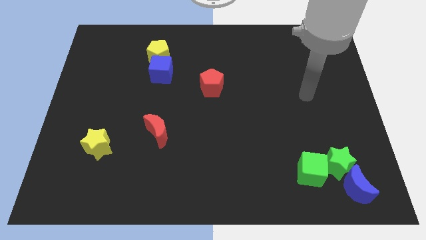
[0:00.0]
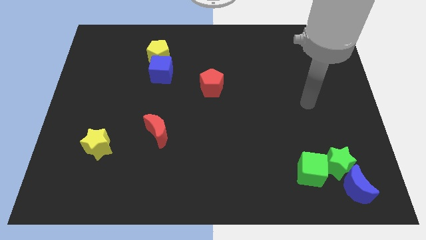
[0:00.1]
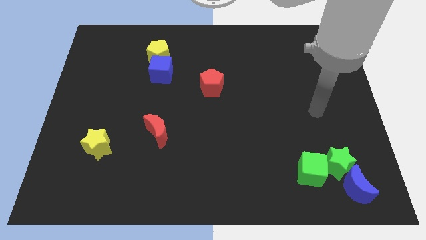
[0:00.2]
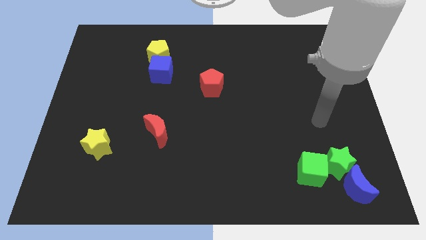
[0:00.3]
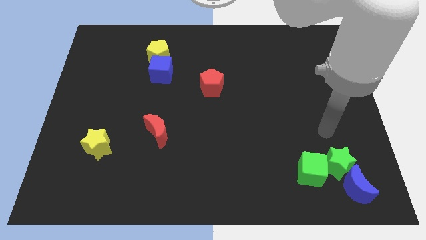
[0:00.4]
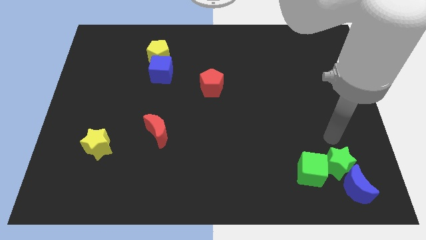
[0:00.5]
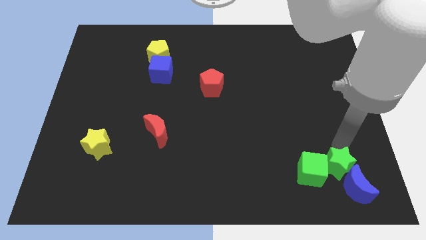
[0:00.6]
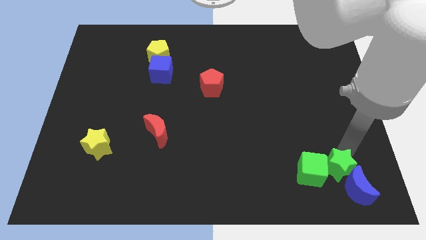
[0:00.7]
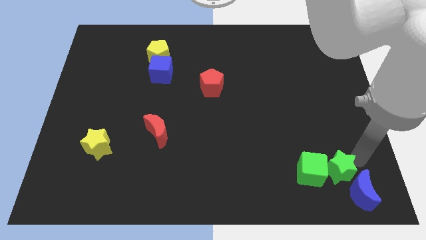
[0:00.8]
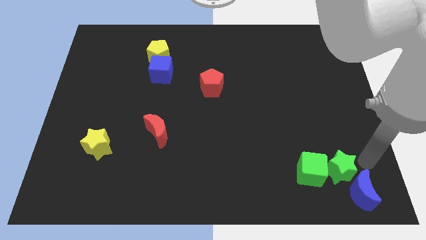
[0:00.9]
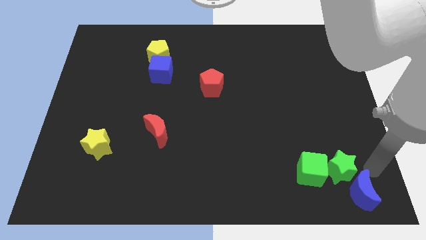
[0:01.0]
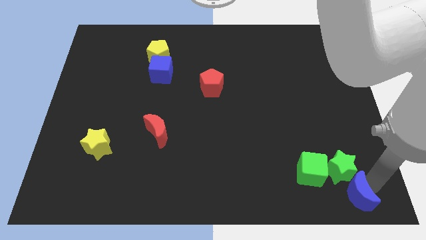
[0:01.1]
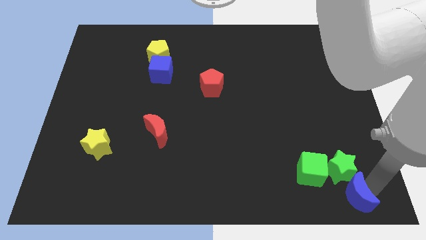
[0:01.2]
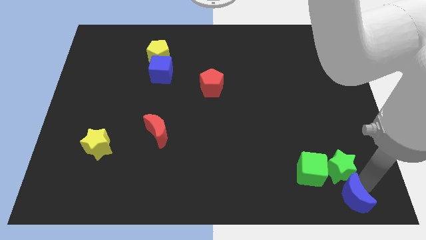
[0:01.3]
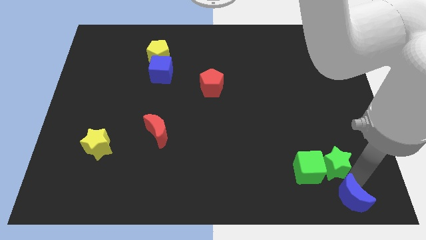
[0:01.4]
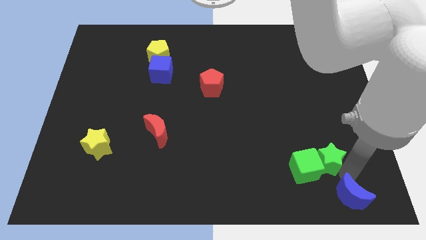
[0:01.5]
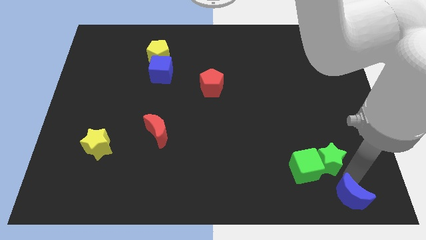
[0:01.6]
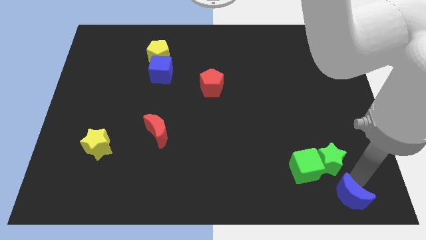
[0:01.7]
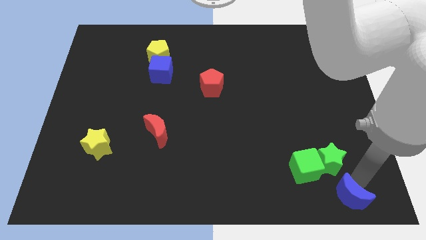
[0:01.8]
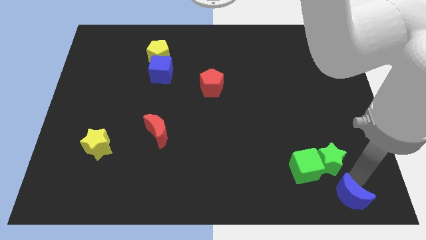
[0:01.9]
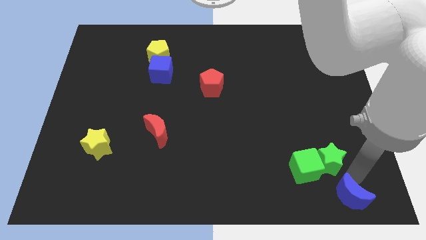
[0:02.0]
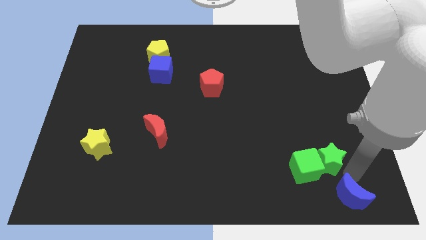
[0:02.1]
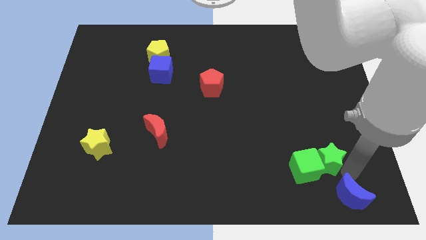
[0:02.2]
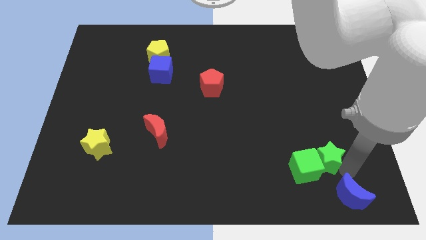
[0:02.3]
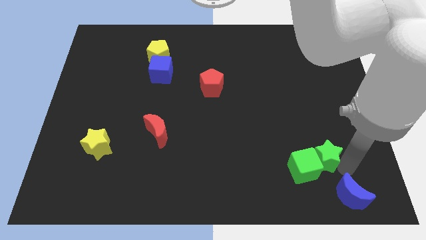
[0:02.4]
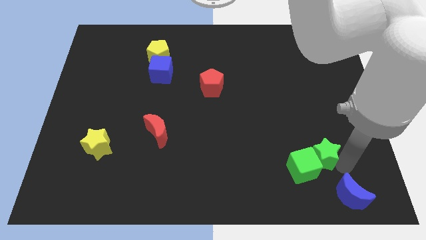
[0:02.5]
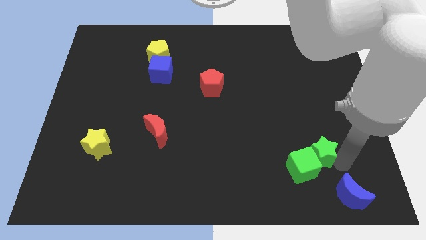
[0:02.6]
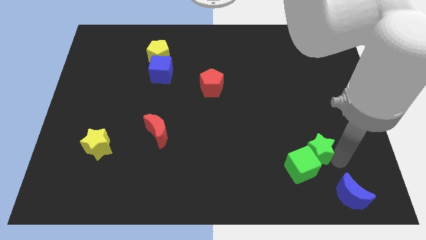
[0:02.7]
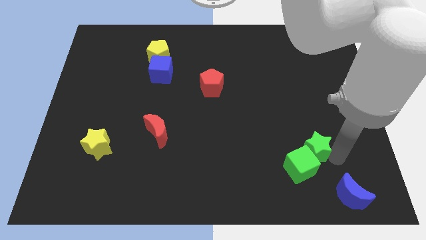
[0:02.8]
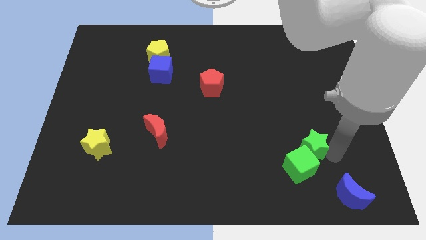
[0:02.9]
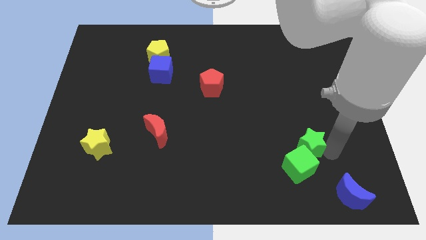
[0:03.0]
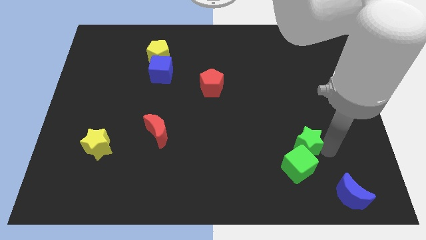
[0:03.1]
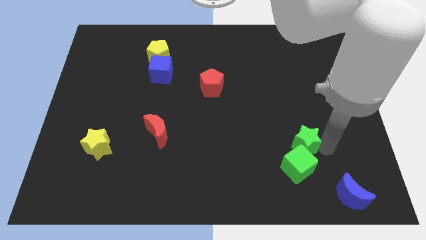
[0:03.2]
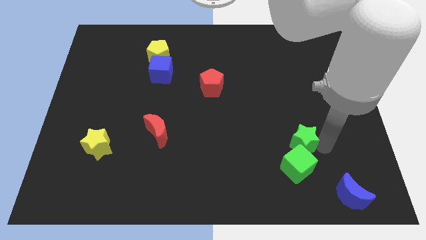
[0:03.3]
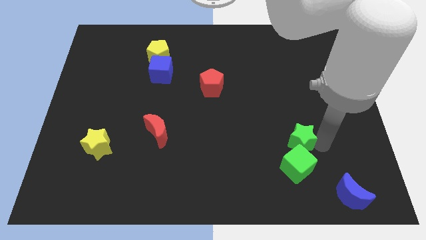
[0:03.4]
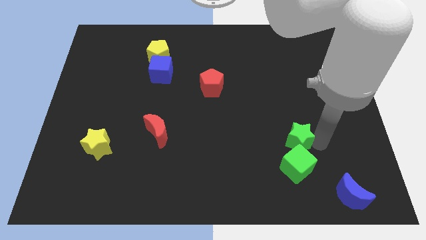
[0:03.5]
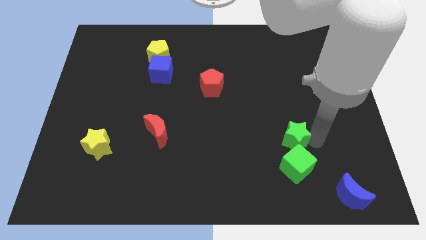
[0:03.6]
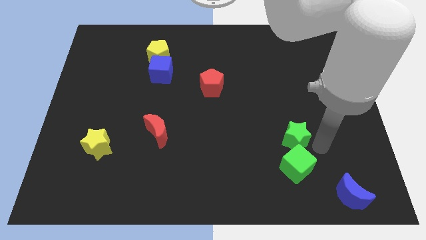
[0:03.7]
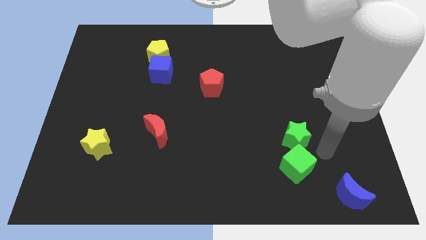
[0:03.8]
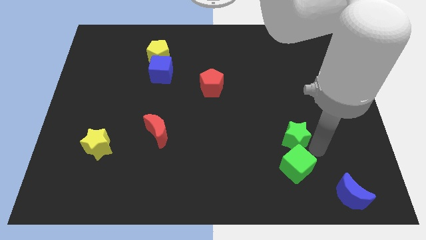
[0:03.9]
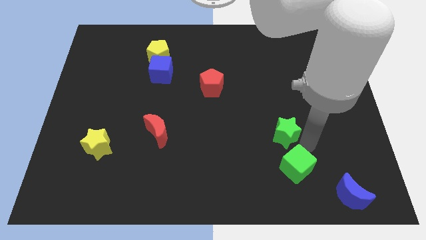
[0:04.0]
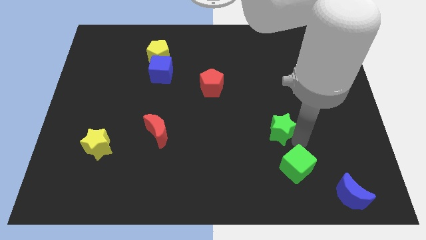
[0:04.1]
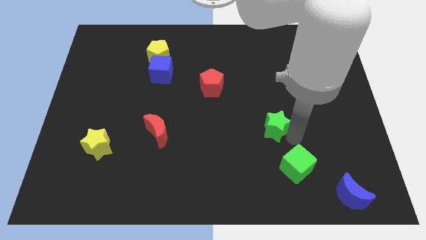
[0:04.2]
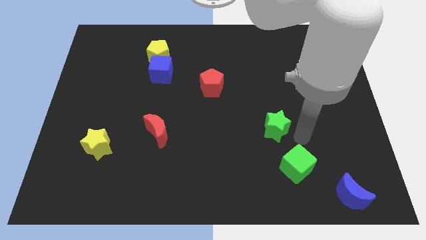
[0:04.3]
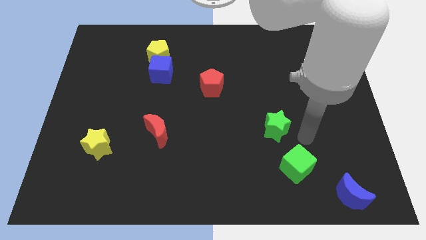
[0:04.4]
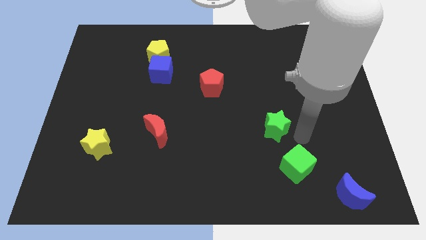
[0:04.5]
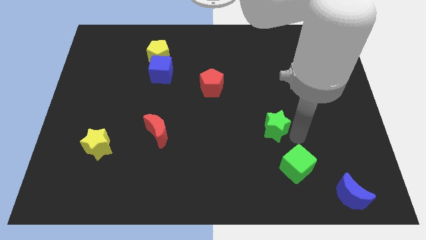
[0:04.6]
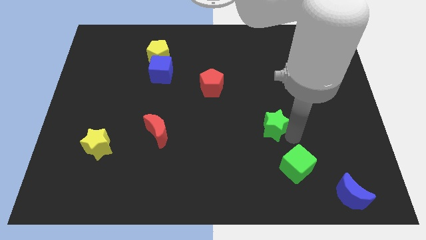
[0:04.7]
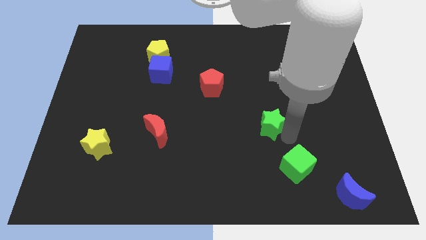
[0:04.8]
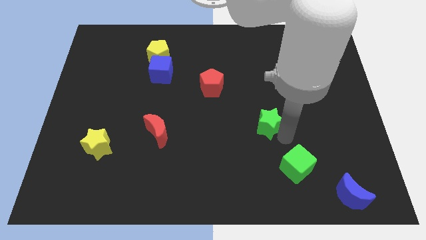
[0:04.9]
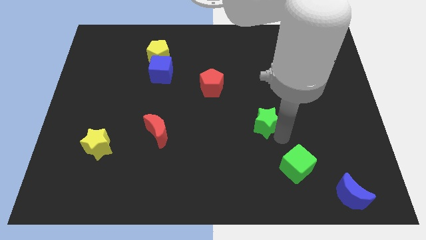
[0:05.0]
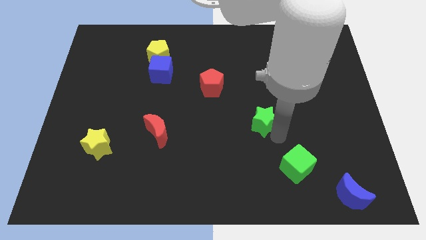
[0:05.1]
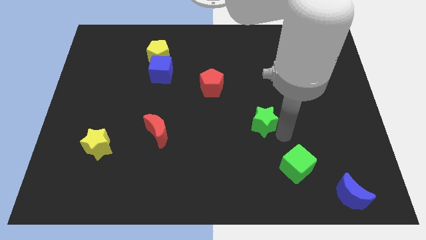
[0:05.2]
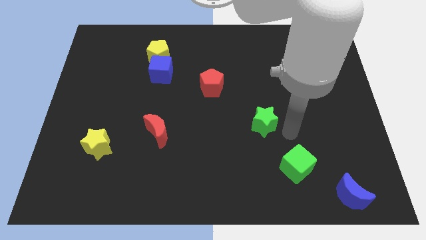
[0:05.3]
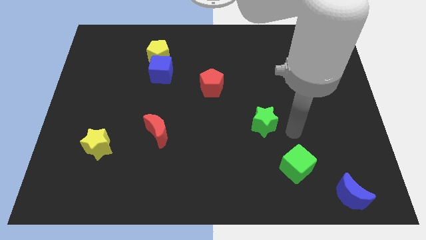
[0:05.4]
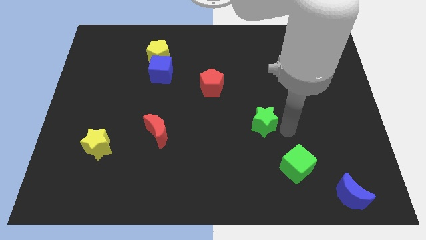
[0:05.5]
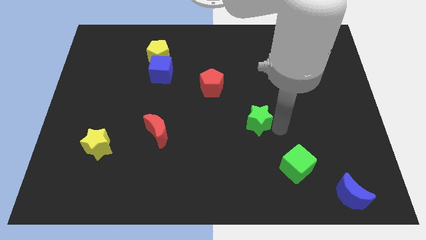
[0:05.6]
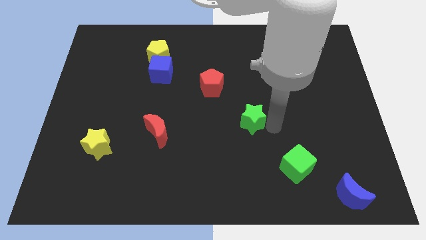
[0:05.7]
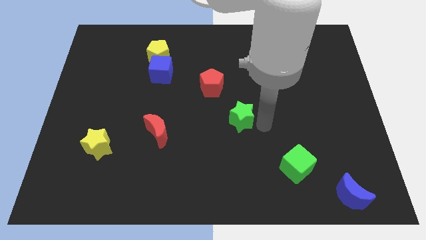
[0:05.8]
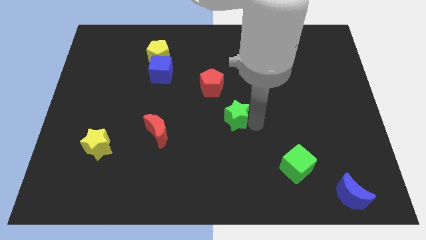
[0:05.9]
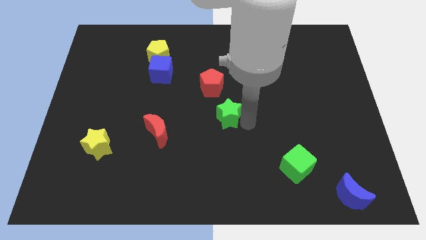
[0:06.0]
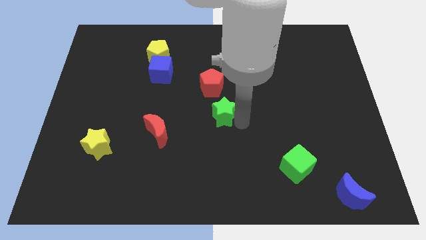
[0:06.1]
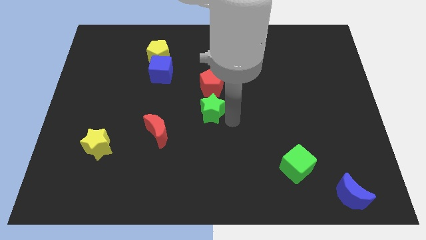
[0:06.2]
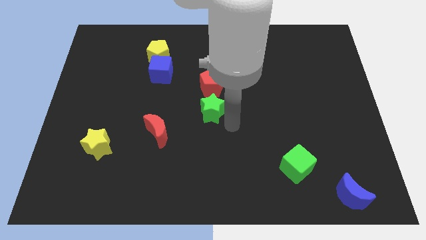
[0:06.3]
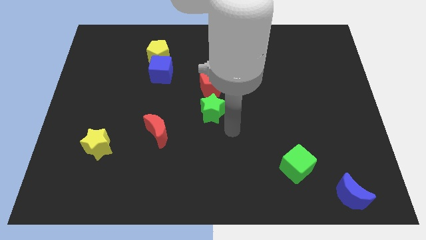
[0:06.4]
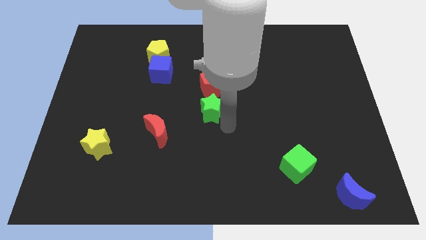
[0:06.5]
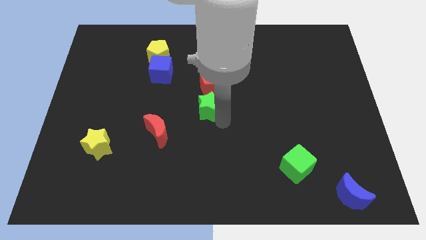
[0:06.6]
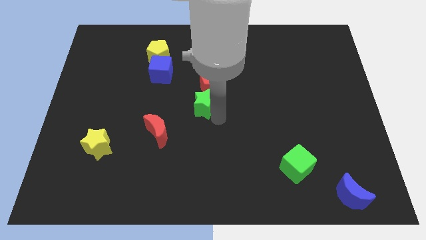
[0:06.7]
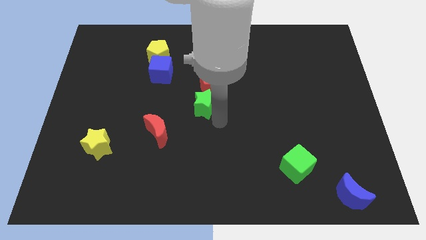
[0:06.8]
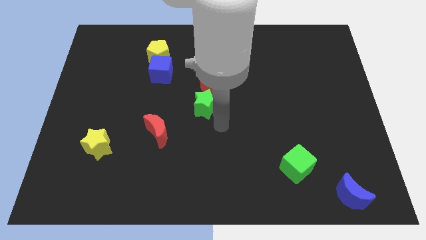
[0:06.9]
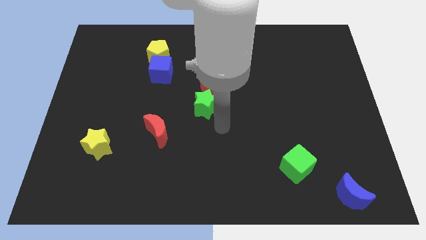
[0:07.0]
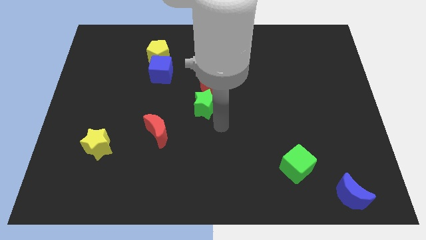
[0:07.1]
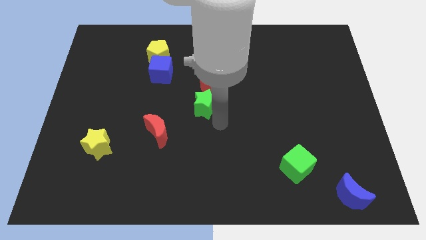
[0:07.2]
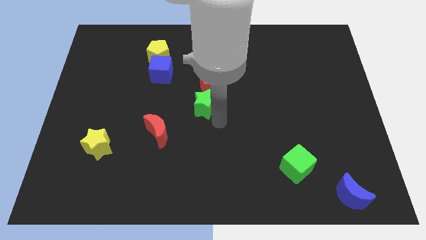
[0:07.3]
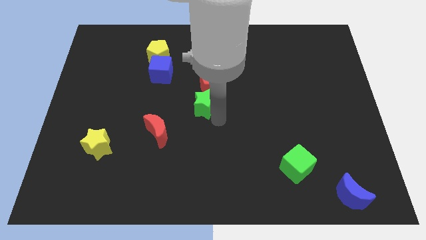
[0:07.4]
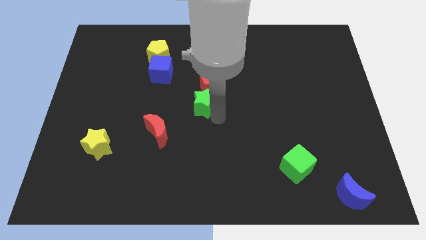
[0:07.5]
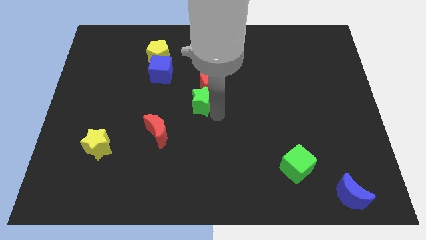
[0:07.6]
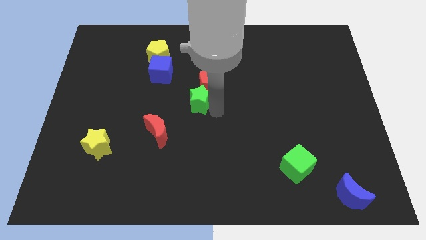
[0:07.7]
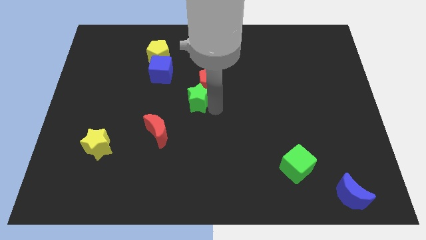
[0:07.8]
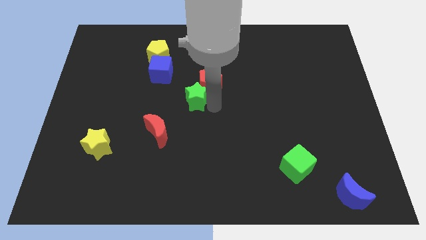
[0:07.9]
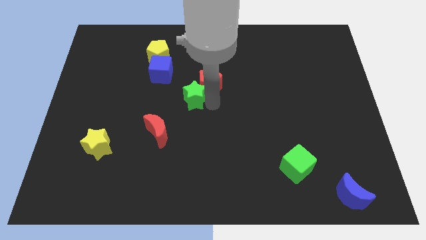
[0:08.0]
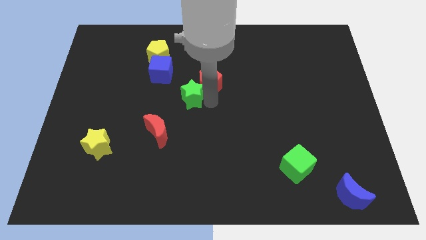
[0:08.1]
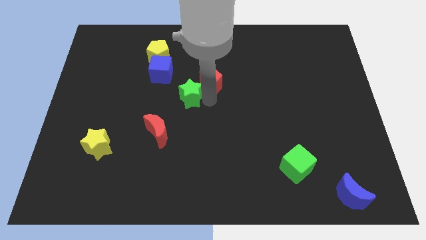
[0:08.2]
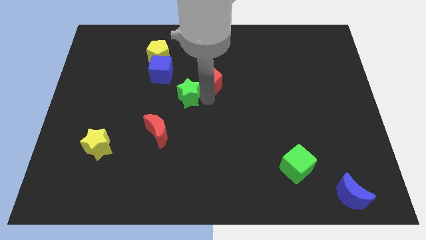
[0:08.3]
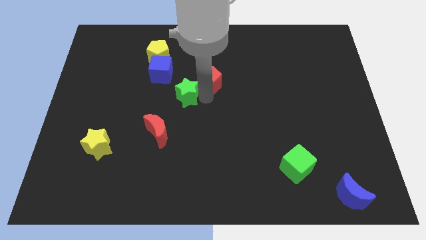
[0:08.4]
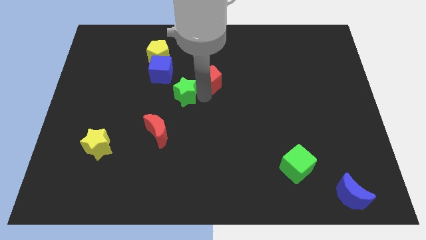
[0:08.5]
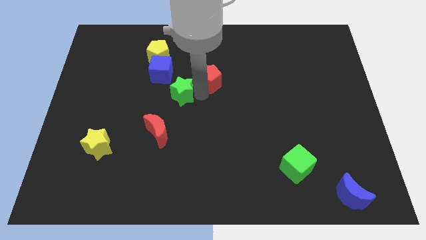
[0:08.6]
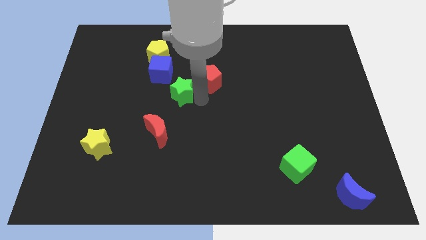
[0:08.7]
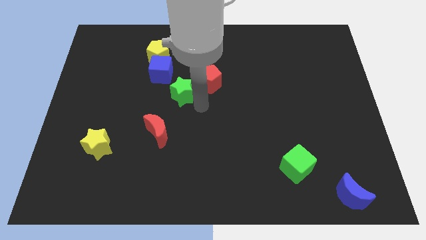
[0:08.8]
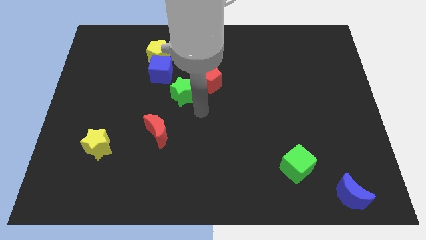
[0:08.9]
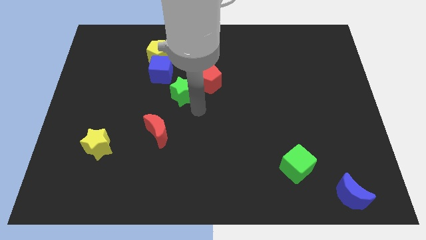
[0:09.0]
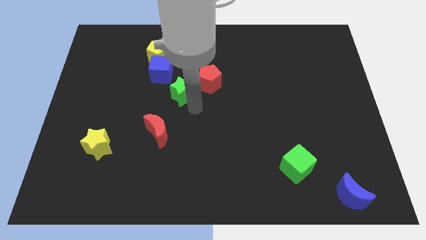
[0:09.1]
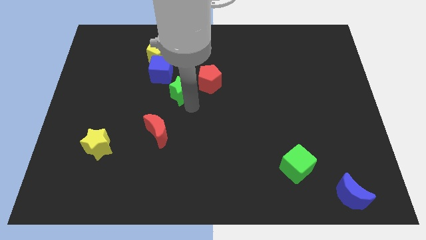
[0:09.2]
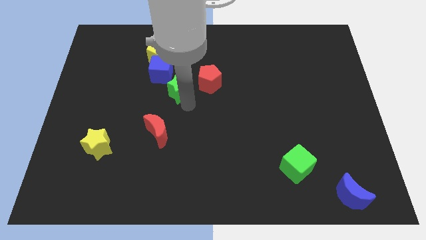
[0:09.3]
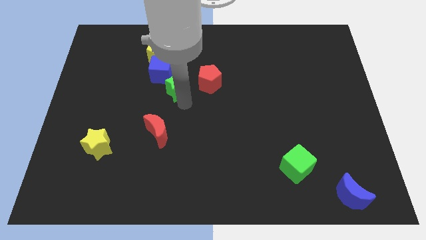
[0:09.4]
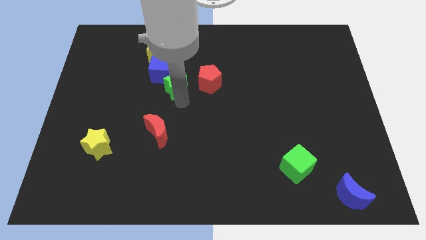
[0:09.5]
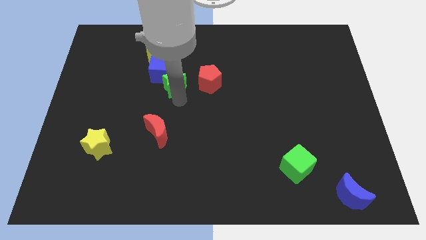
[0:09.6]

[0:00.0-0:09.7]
put the green star to the blue cube
